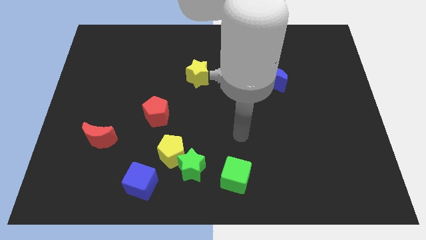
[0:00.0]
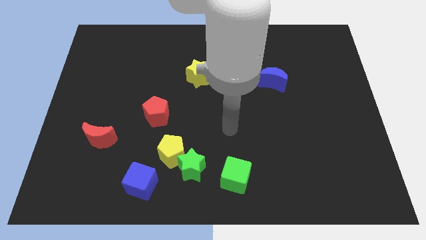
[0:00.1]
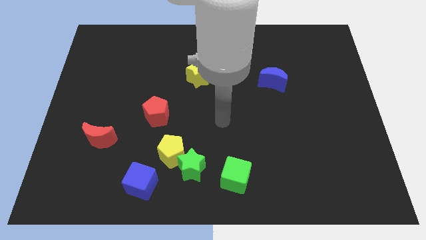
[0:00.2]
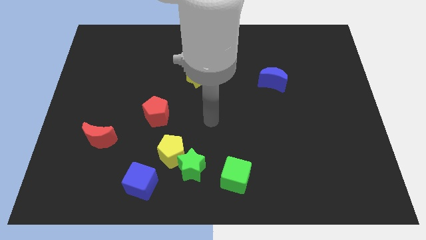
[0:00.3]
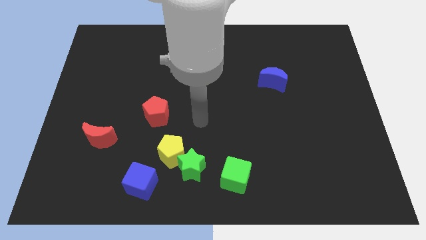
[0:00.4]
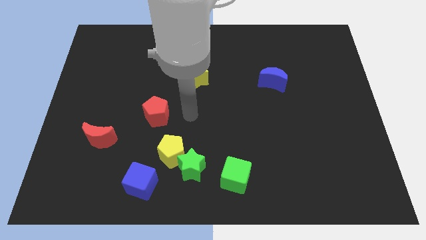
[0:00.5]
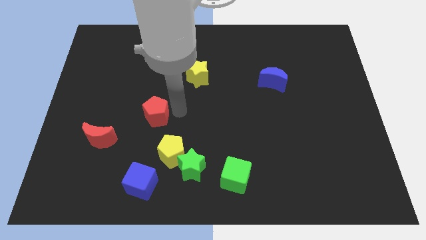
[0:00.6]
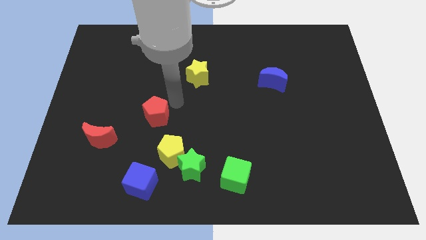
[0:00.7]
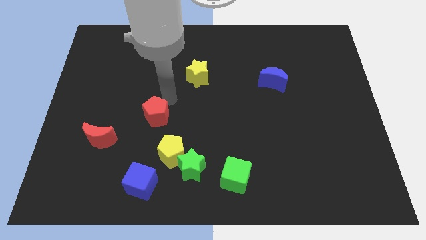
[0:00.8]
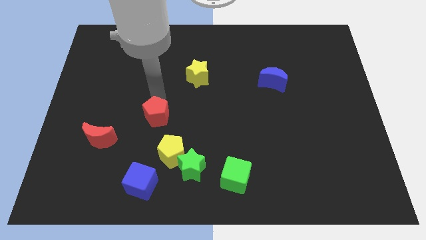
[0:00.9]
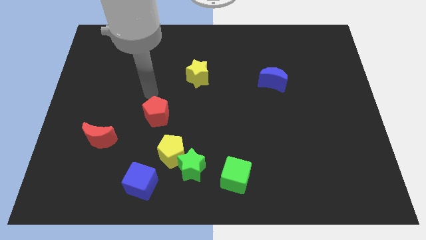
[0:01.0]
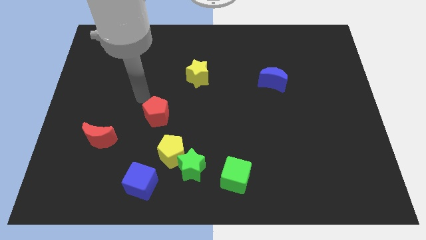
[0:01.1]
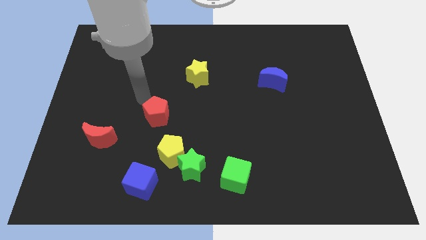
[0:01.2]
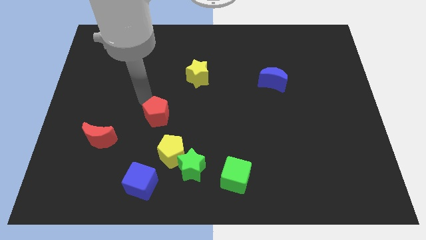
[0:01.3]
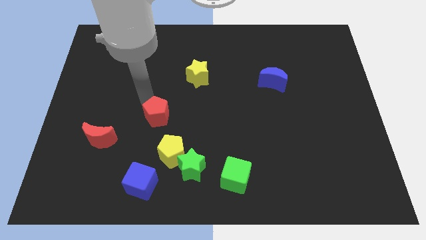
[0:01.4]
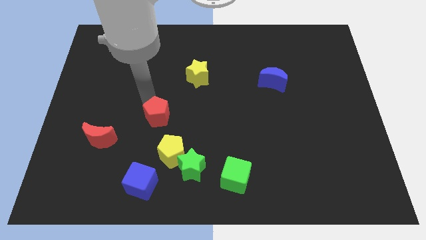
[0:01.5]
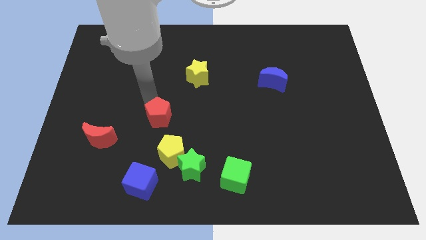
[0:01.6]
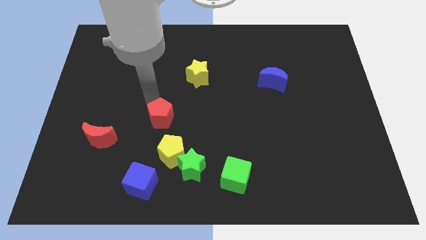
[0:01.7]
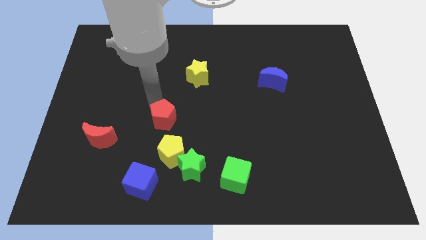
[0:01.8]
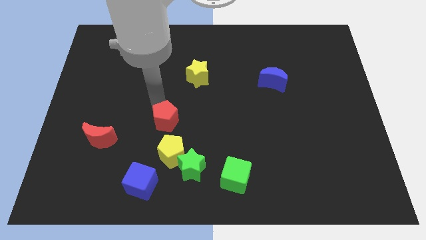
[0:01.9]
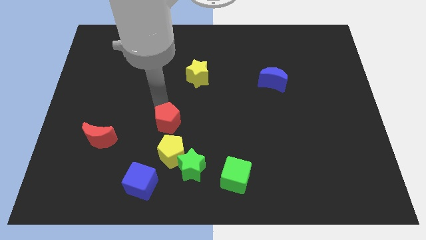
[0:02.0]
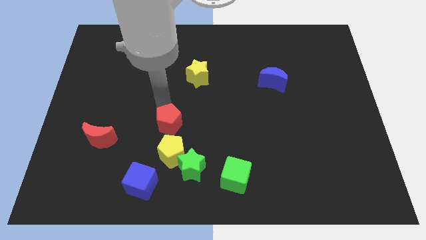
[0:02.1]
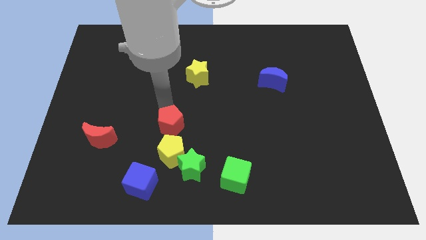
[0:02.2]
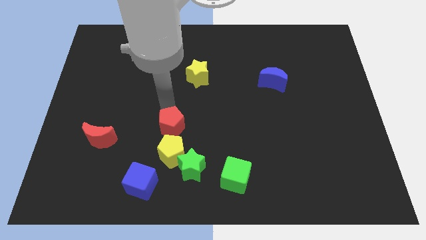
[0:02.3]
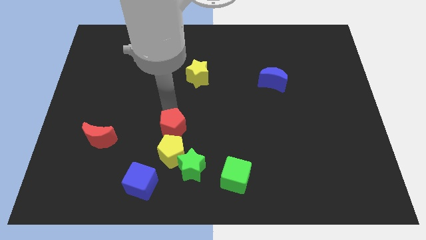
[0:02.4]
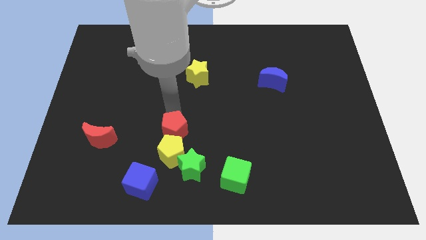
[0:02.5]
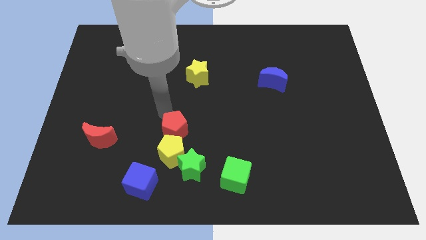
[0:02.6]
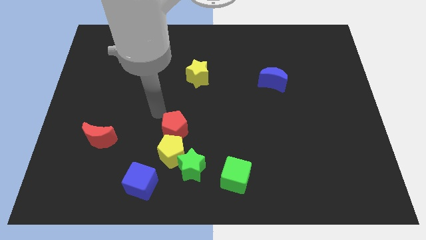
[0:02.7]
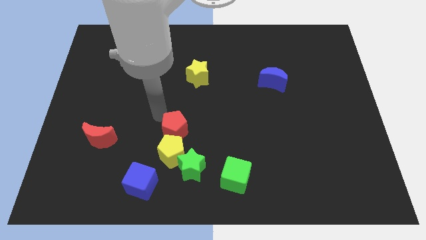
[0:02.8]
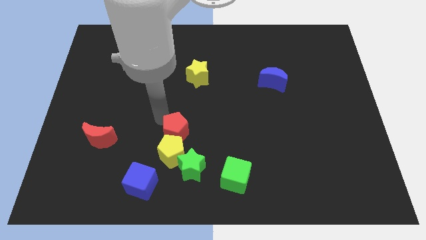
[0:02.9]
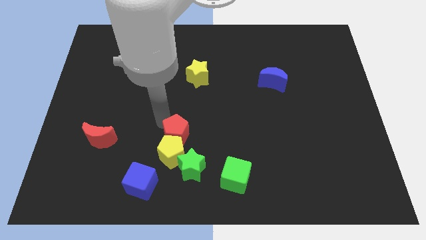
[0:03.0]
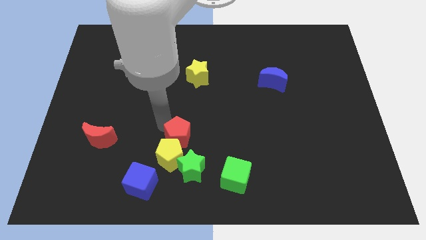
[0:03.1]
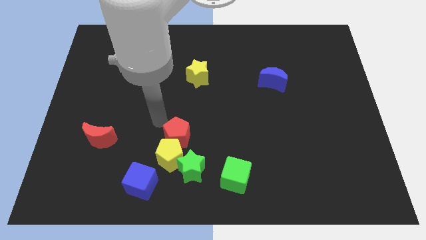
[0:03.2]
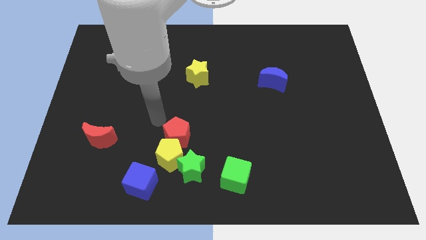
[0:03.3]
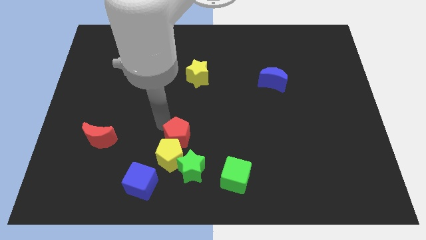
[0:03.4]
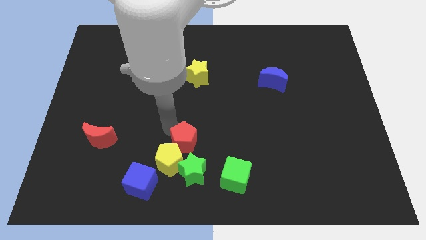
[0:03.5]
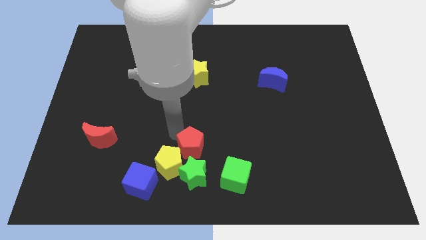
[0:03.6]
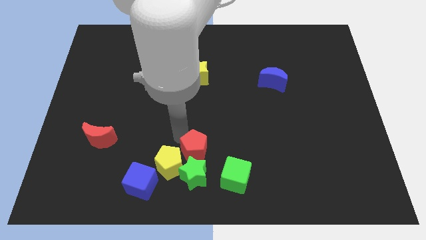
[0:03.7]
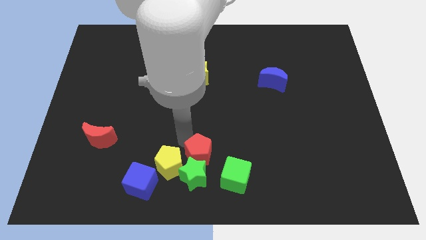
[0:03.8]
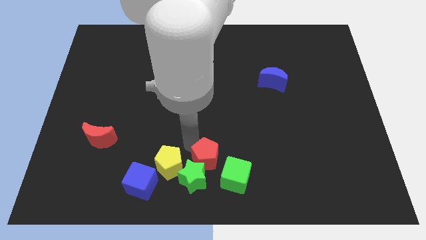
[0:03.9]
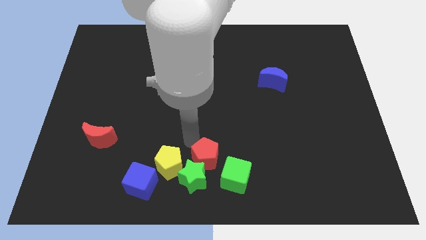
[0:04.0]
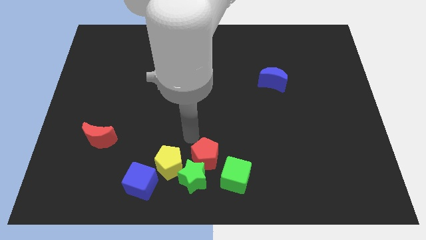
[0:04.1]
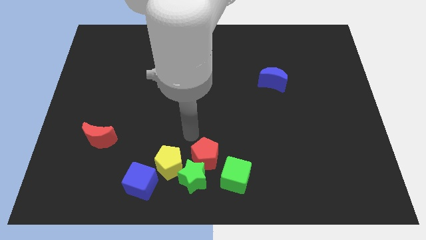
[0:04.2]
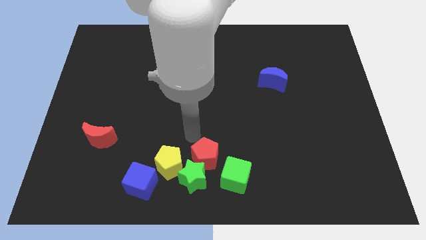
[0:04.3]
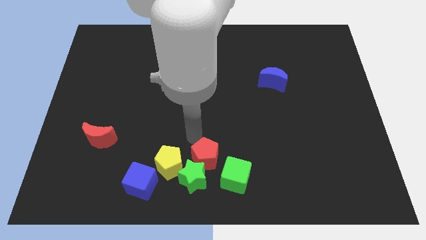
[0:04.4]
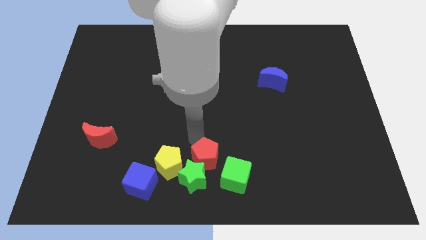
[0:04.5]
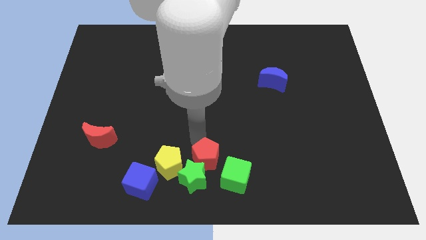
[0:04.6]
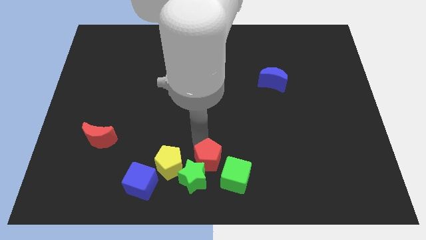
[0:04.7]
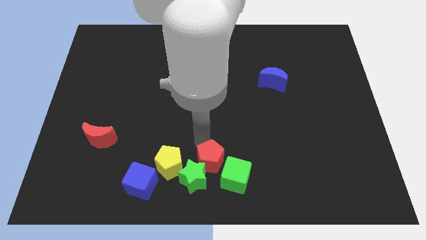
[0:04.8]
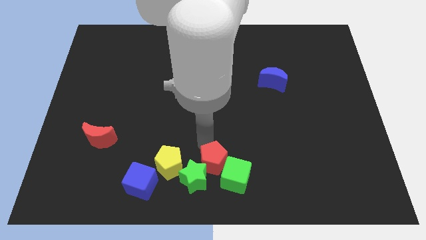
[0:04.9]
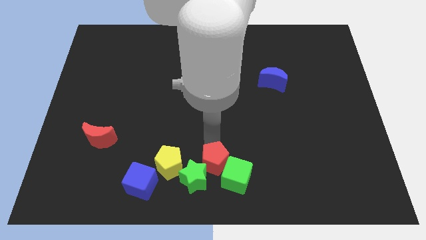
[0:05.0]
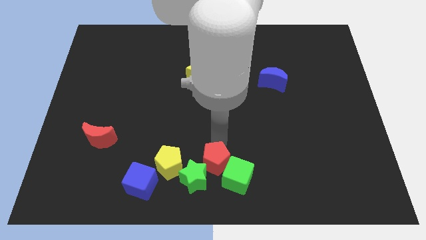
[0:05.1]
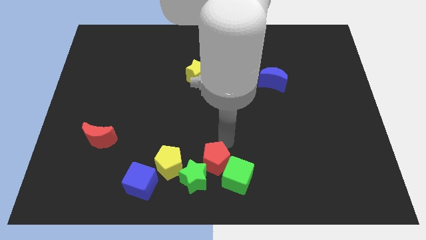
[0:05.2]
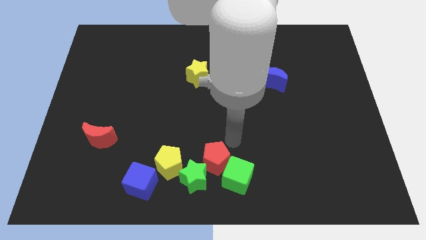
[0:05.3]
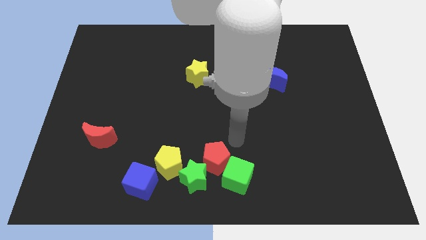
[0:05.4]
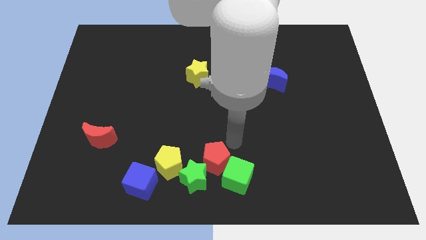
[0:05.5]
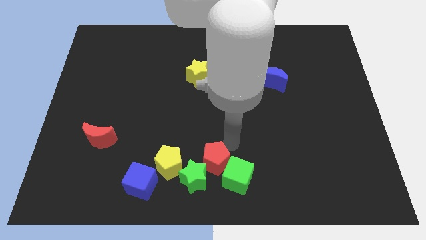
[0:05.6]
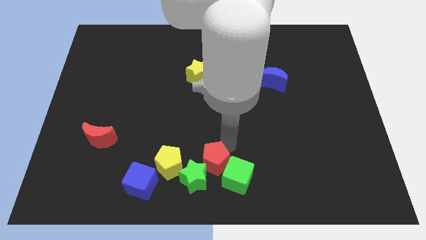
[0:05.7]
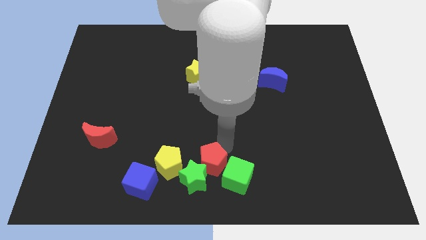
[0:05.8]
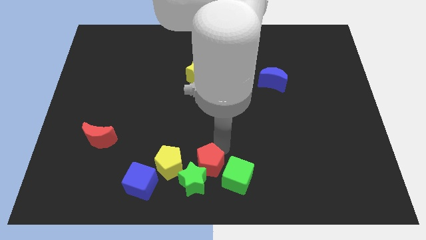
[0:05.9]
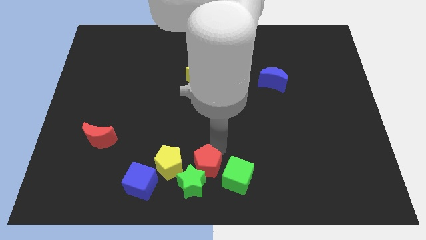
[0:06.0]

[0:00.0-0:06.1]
slide the red pentagon to the right of the blue cube

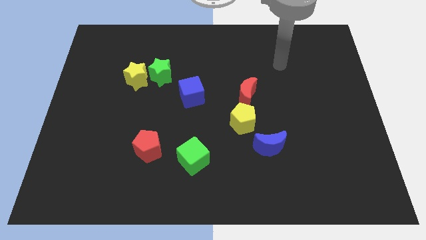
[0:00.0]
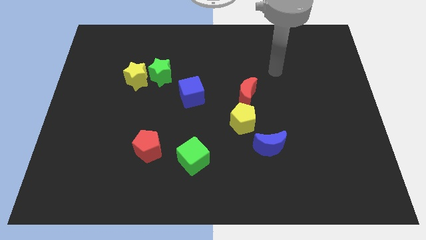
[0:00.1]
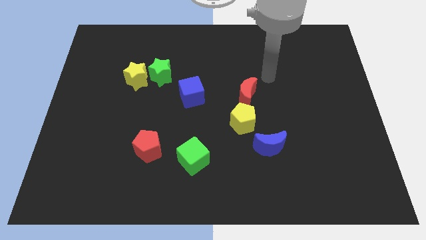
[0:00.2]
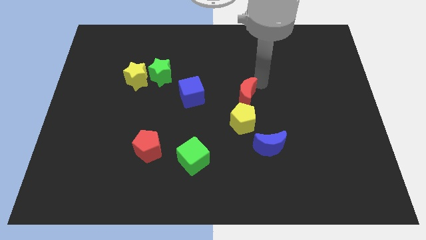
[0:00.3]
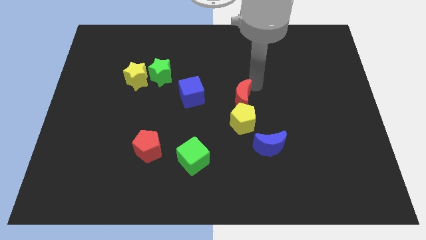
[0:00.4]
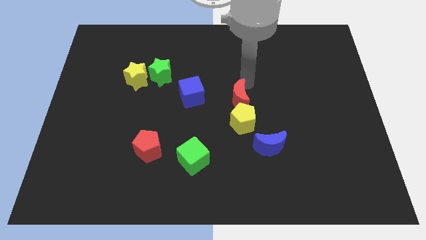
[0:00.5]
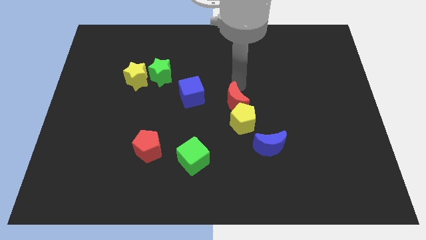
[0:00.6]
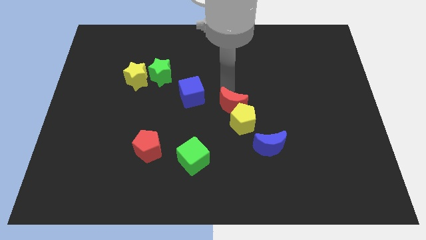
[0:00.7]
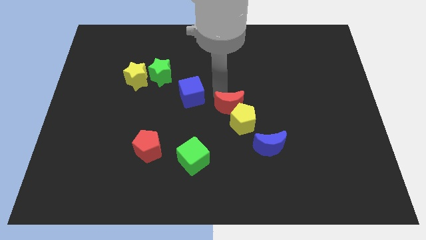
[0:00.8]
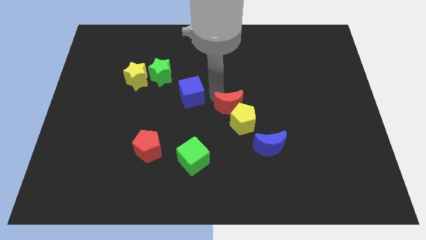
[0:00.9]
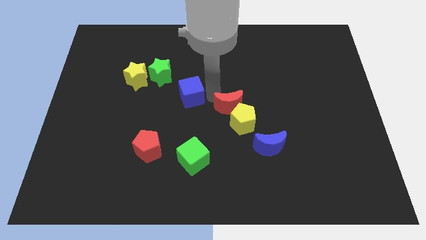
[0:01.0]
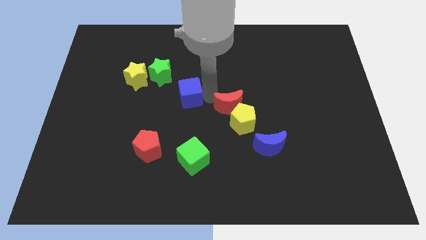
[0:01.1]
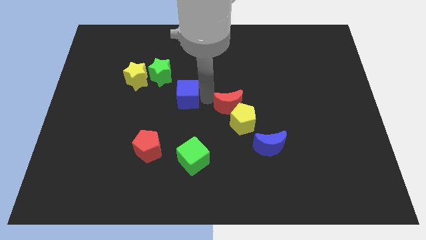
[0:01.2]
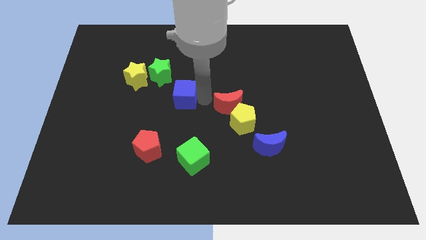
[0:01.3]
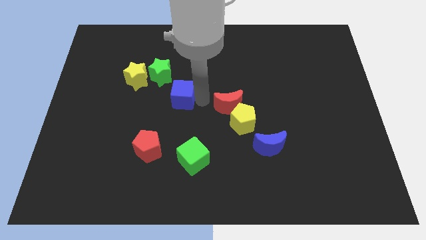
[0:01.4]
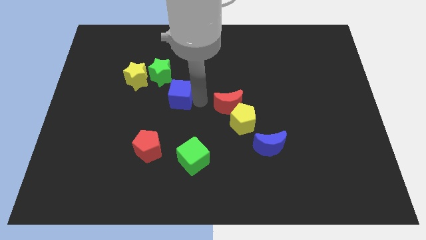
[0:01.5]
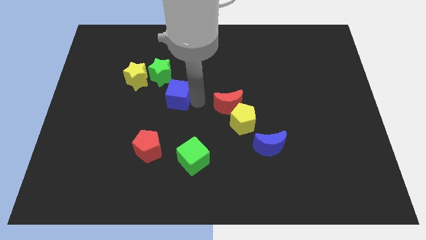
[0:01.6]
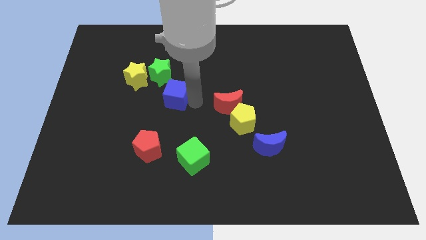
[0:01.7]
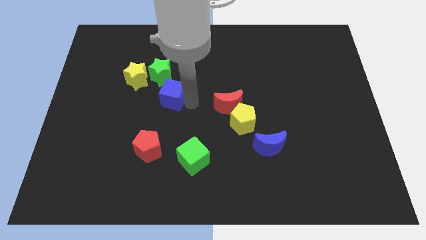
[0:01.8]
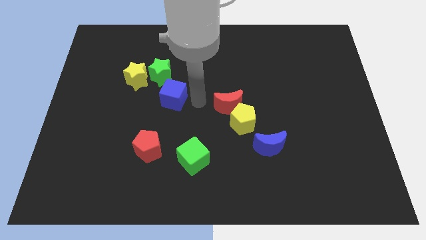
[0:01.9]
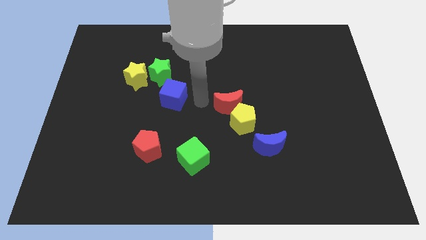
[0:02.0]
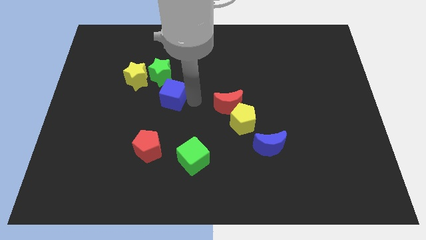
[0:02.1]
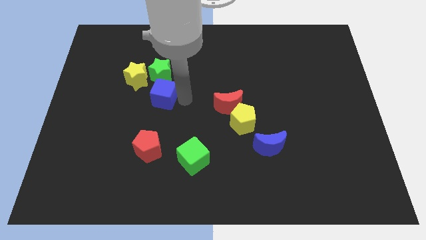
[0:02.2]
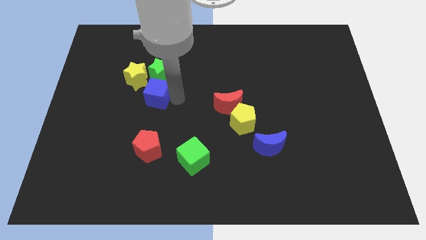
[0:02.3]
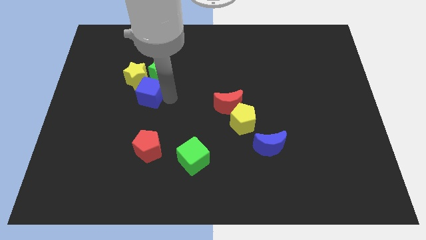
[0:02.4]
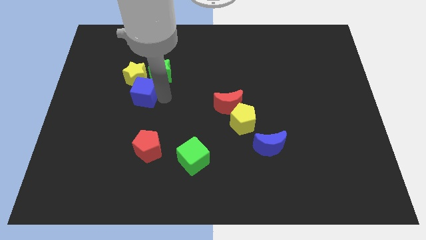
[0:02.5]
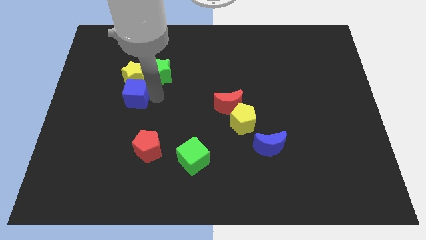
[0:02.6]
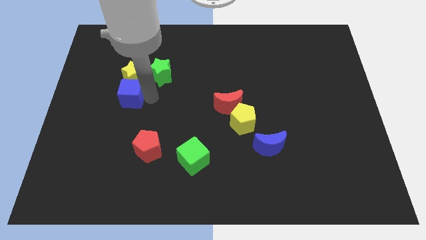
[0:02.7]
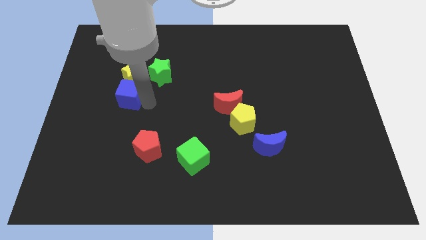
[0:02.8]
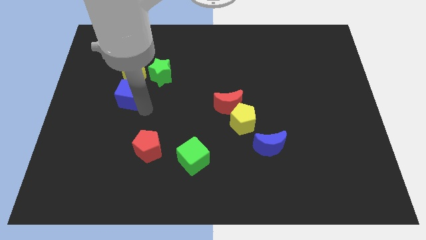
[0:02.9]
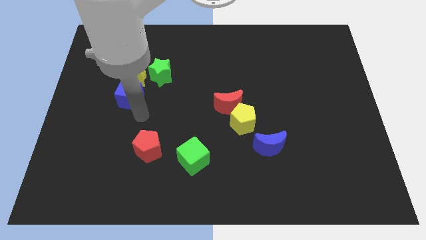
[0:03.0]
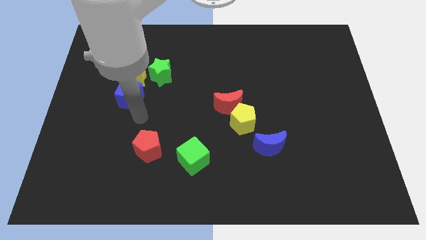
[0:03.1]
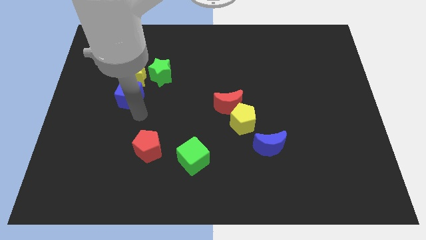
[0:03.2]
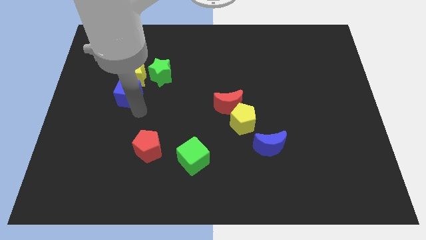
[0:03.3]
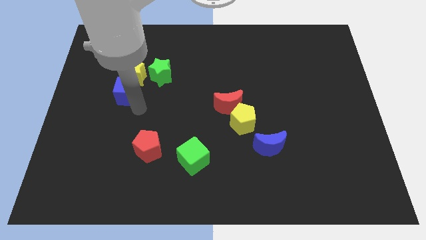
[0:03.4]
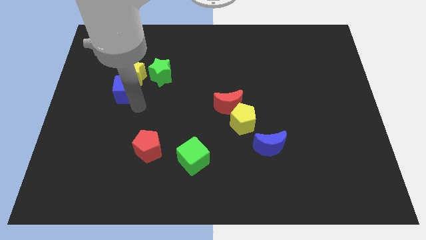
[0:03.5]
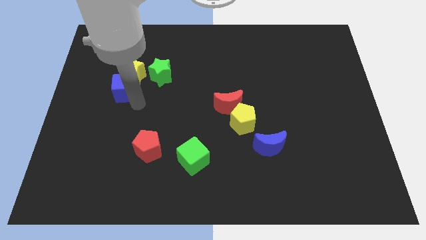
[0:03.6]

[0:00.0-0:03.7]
move the blue cube to the left side of the green star
